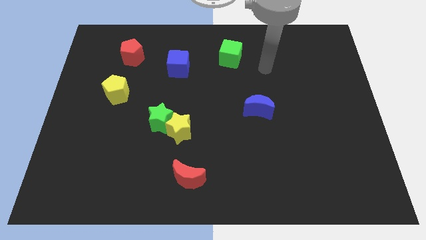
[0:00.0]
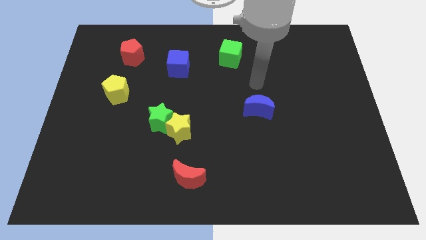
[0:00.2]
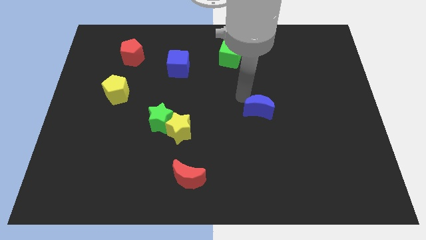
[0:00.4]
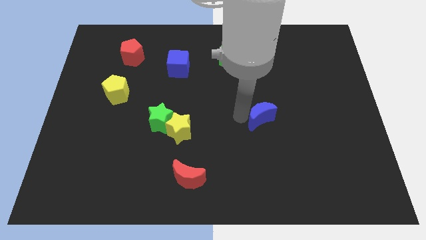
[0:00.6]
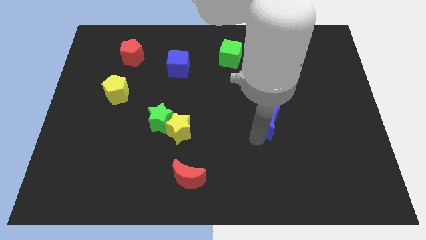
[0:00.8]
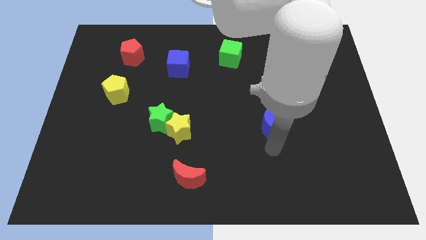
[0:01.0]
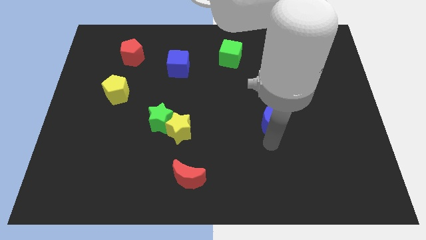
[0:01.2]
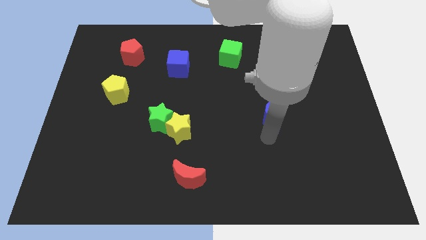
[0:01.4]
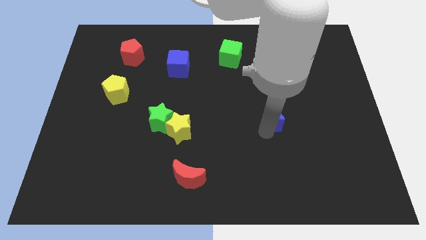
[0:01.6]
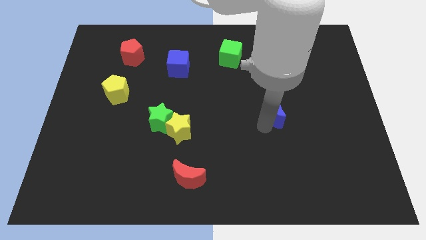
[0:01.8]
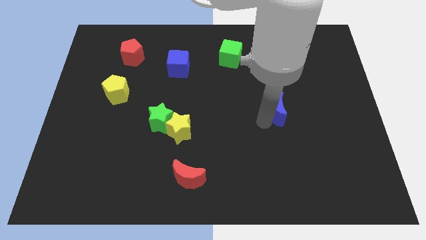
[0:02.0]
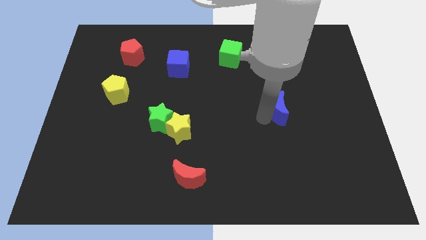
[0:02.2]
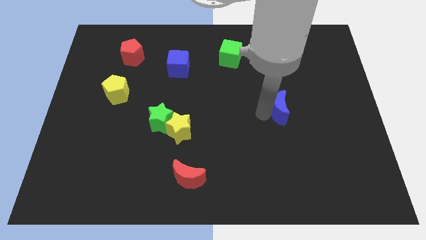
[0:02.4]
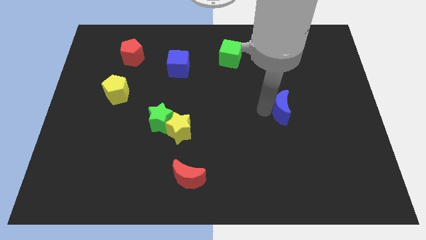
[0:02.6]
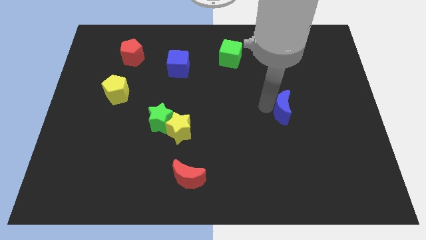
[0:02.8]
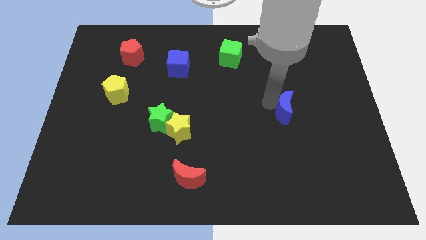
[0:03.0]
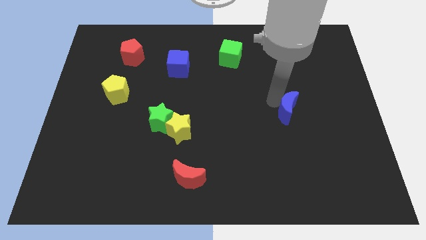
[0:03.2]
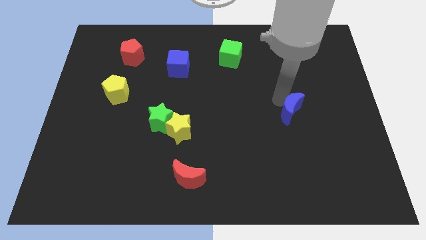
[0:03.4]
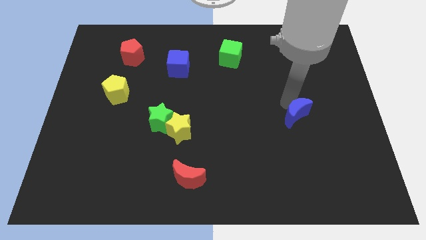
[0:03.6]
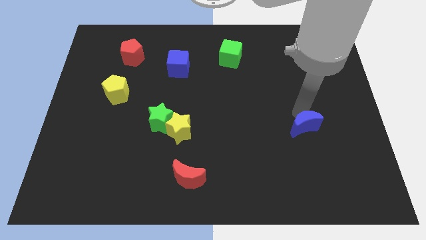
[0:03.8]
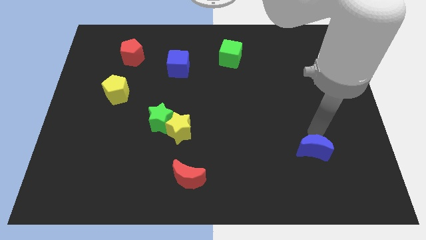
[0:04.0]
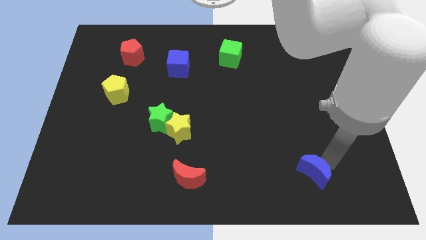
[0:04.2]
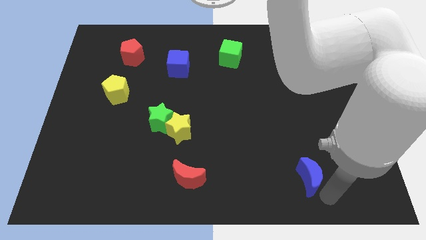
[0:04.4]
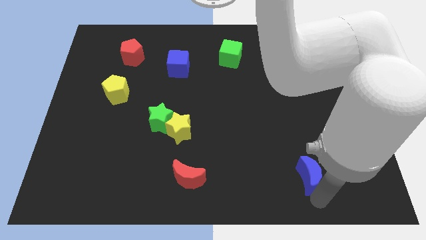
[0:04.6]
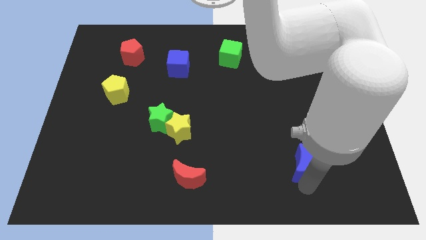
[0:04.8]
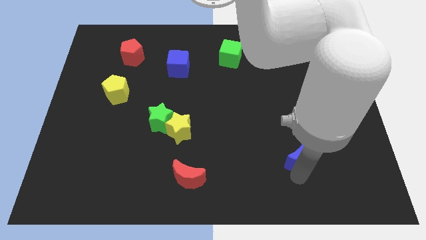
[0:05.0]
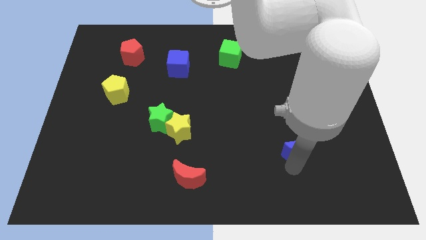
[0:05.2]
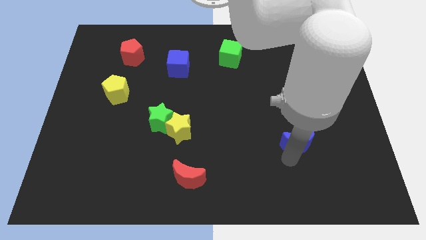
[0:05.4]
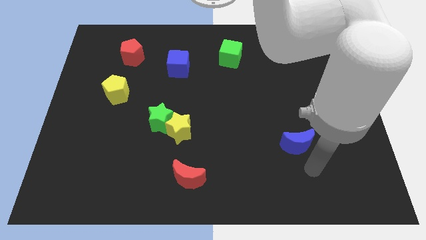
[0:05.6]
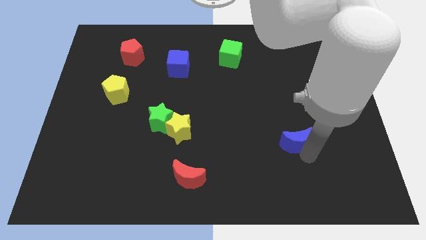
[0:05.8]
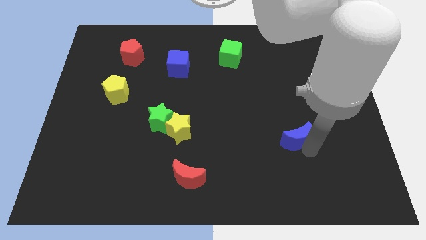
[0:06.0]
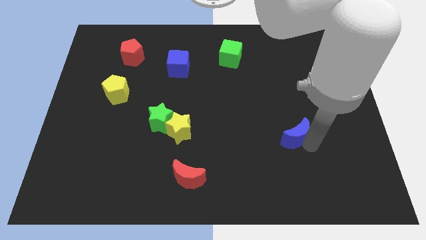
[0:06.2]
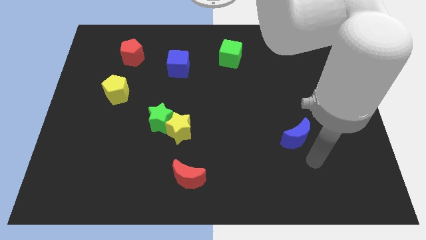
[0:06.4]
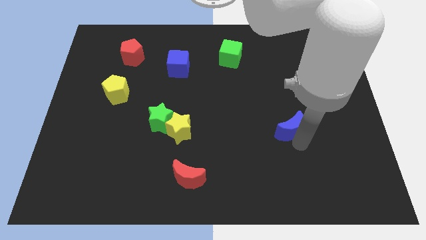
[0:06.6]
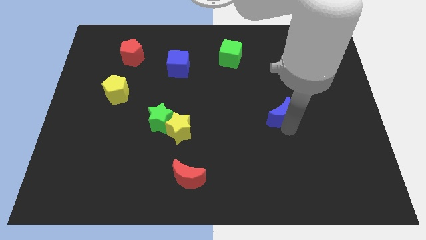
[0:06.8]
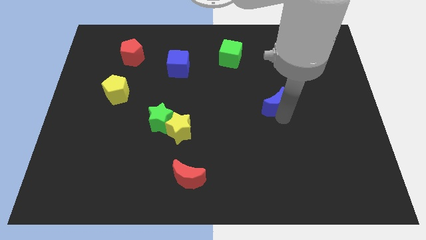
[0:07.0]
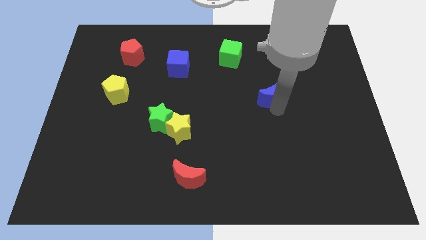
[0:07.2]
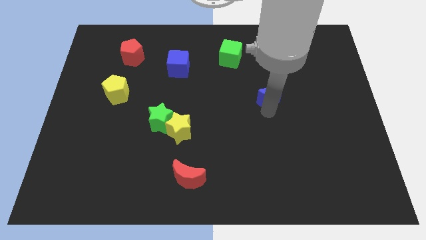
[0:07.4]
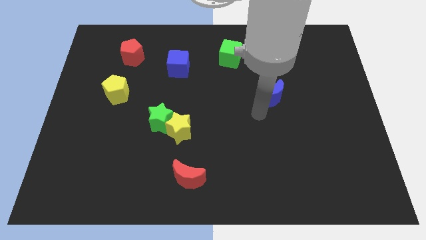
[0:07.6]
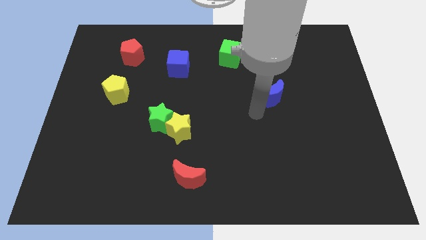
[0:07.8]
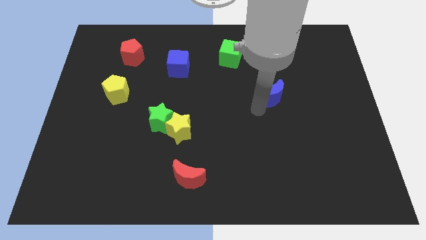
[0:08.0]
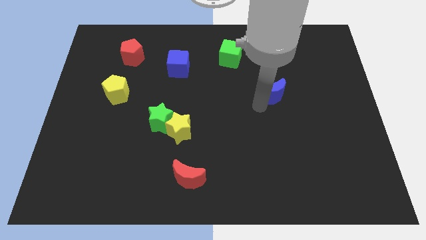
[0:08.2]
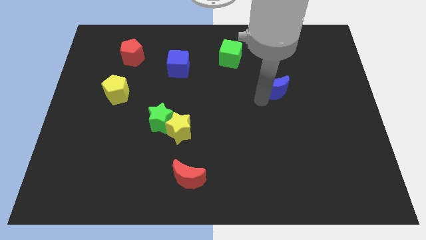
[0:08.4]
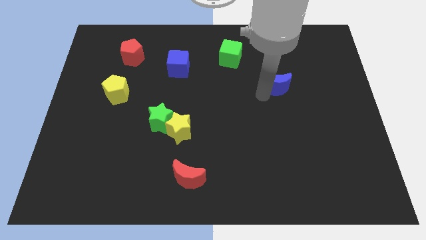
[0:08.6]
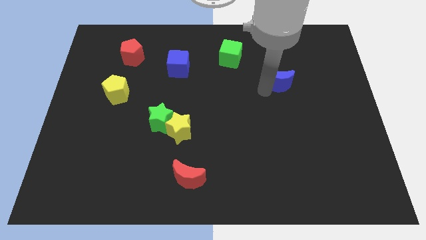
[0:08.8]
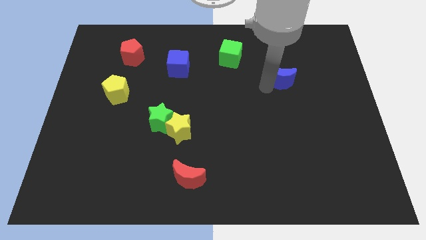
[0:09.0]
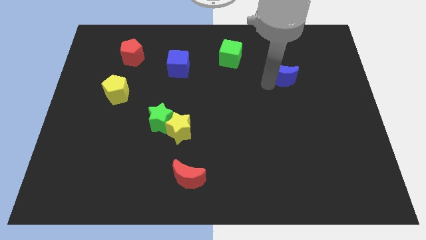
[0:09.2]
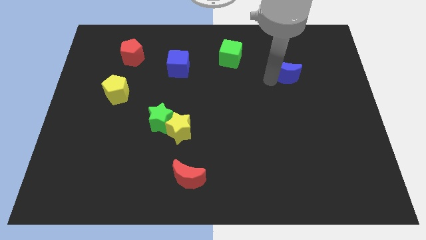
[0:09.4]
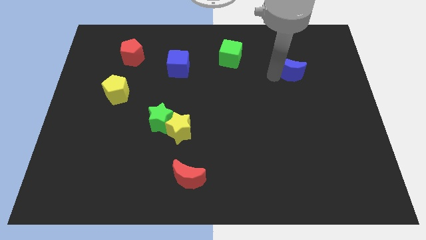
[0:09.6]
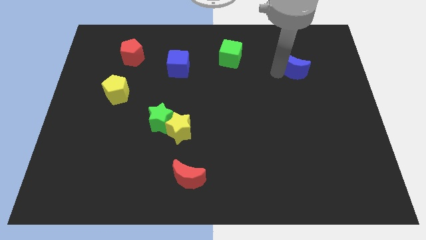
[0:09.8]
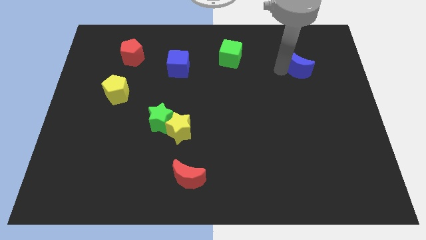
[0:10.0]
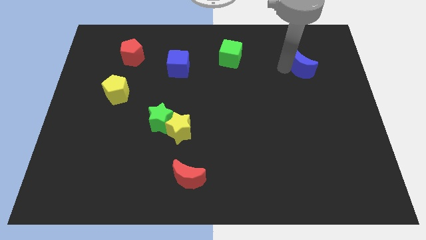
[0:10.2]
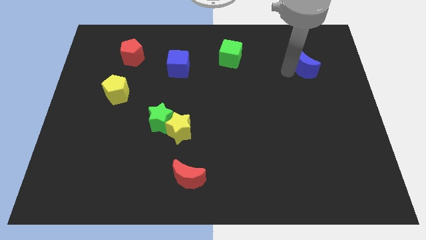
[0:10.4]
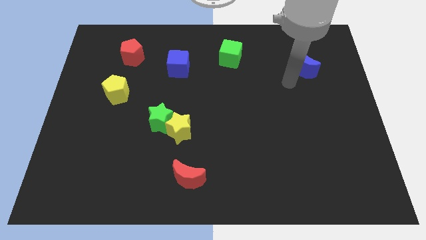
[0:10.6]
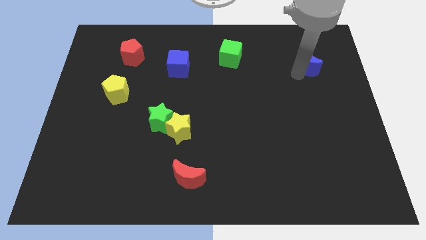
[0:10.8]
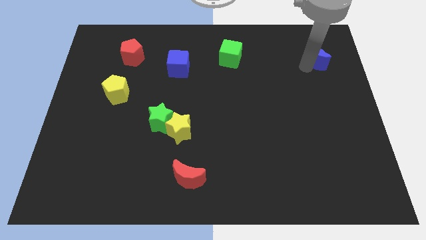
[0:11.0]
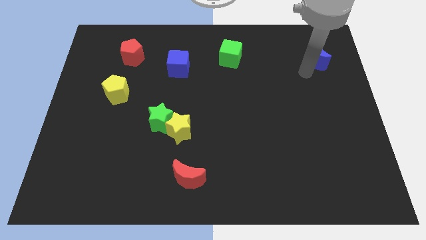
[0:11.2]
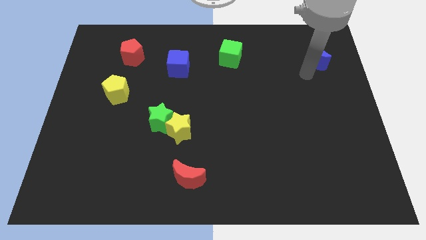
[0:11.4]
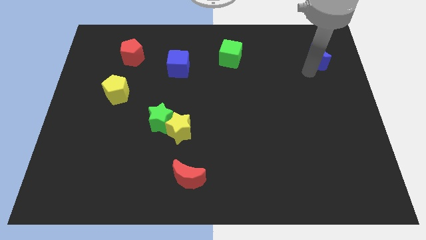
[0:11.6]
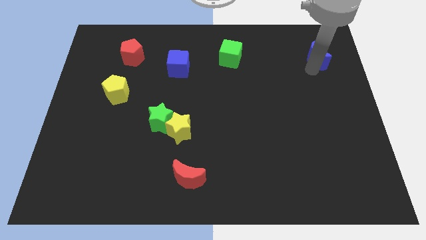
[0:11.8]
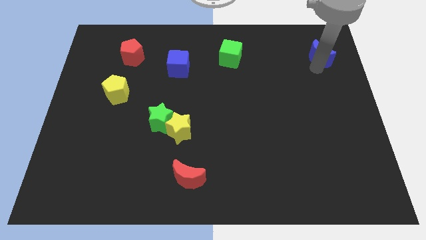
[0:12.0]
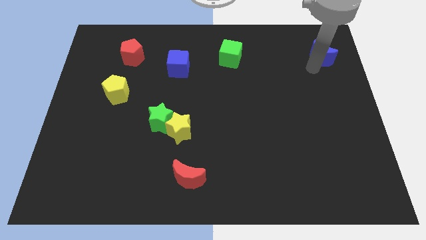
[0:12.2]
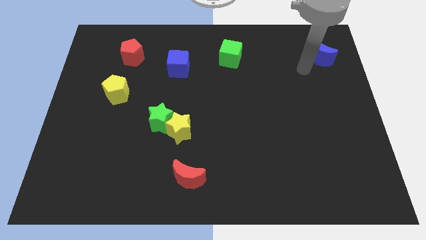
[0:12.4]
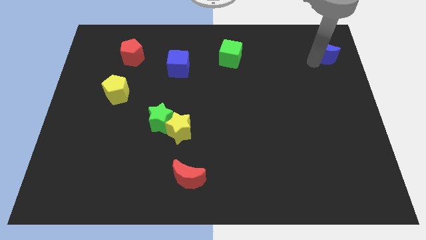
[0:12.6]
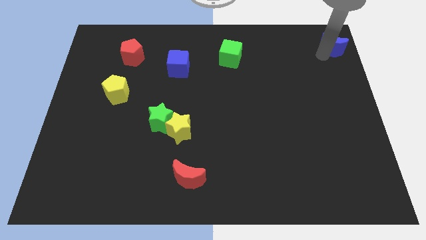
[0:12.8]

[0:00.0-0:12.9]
put the blue moon to the upper right corner
